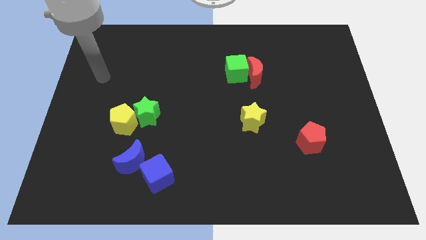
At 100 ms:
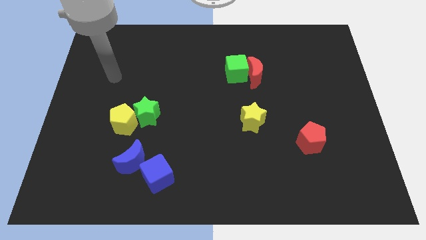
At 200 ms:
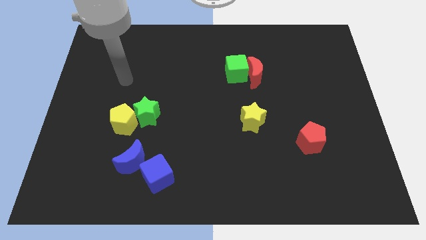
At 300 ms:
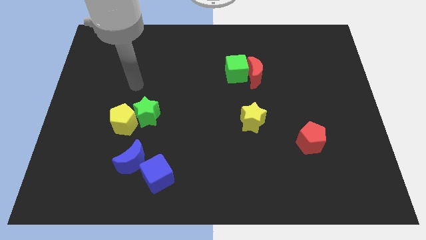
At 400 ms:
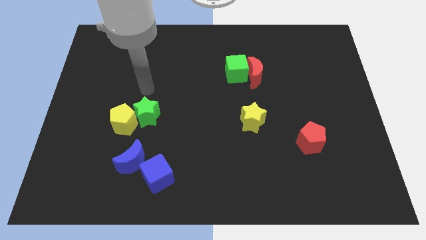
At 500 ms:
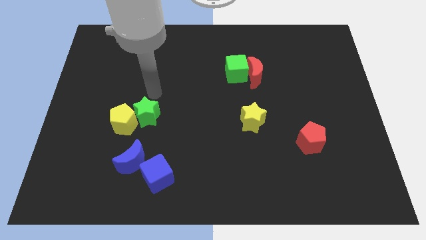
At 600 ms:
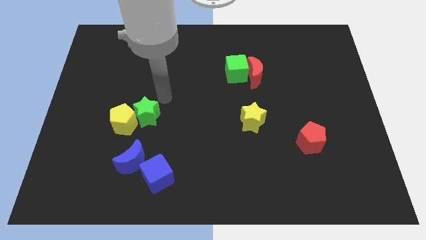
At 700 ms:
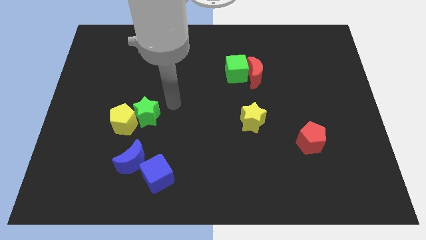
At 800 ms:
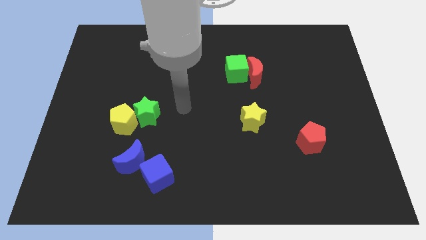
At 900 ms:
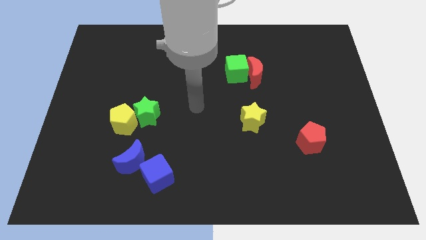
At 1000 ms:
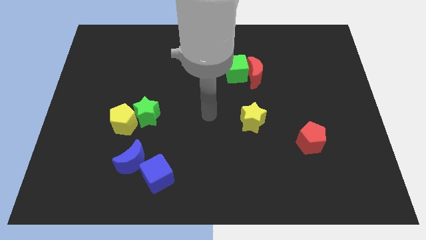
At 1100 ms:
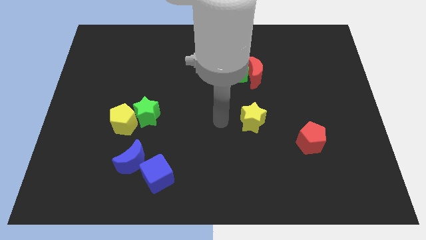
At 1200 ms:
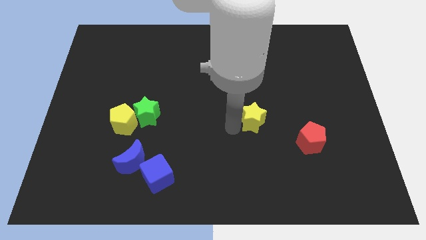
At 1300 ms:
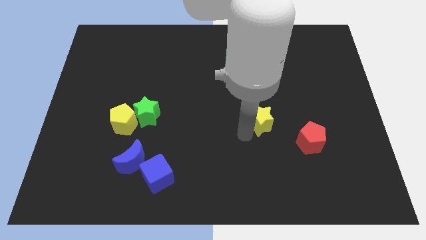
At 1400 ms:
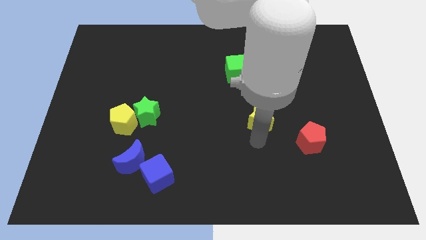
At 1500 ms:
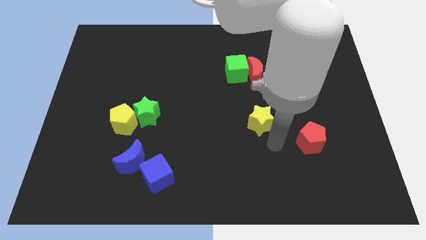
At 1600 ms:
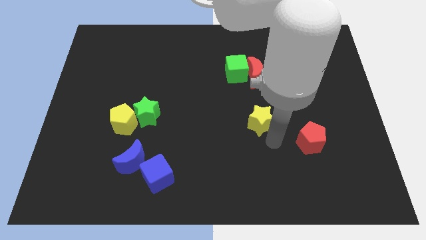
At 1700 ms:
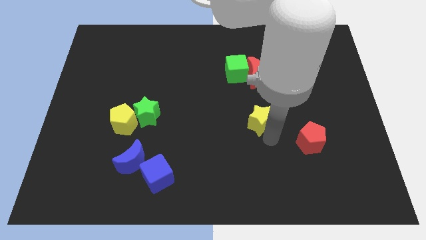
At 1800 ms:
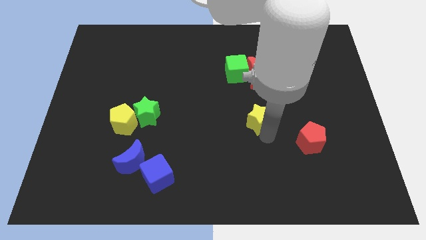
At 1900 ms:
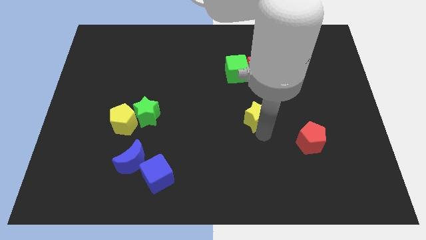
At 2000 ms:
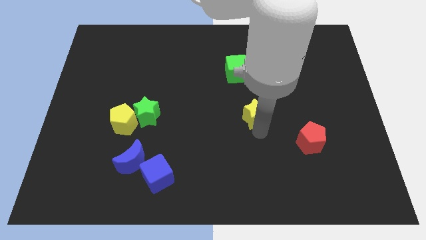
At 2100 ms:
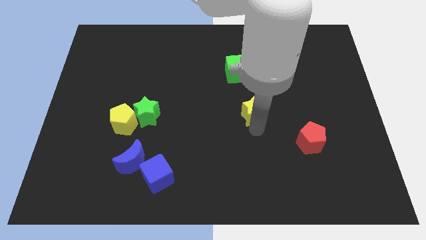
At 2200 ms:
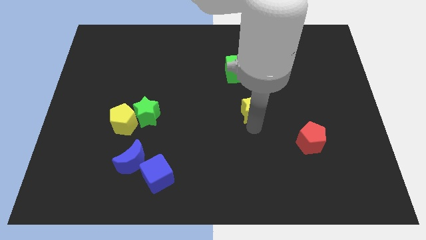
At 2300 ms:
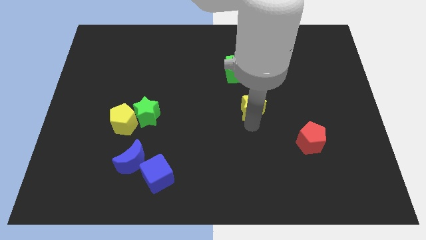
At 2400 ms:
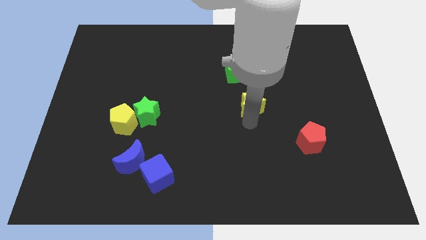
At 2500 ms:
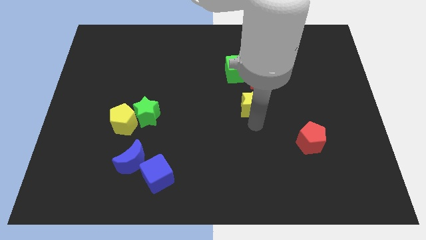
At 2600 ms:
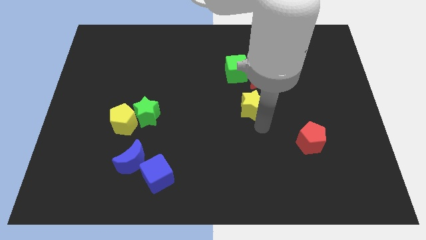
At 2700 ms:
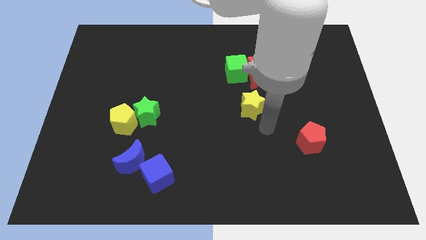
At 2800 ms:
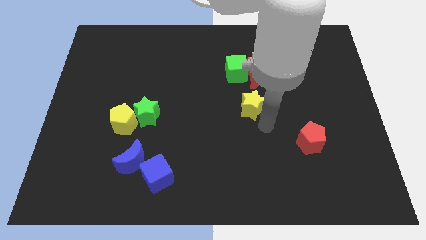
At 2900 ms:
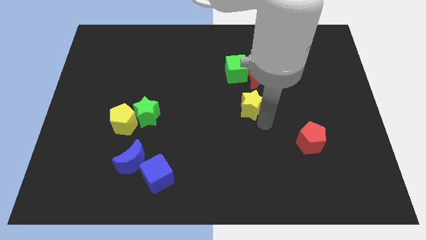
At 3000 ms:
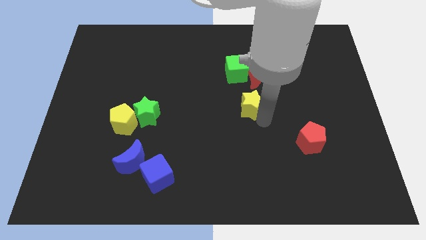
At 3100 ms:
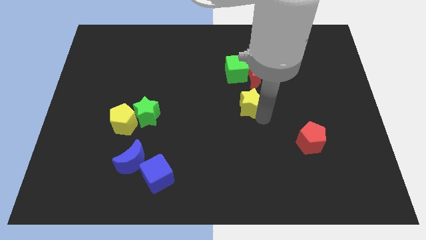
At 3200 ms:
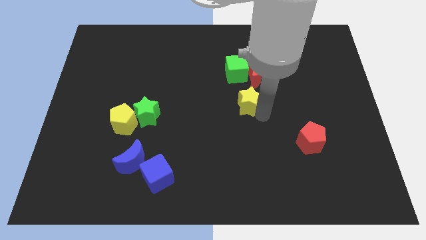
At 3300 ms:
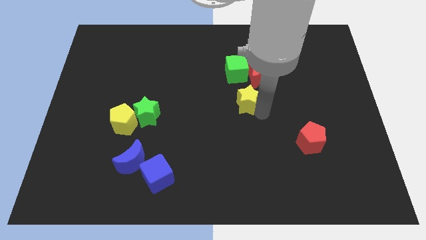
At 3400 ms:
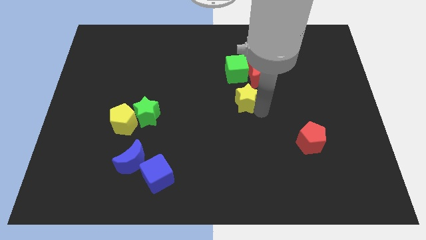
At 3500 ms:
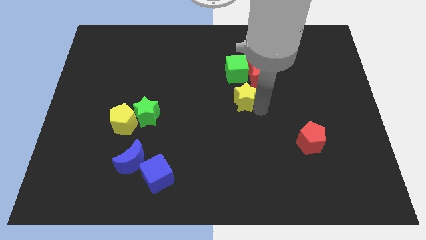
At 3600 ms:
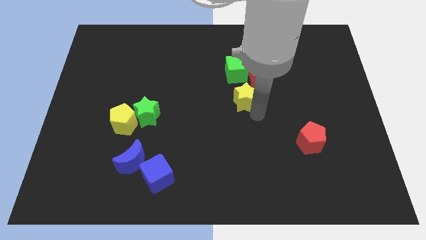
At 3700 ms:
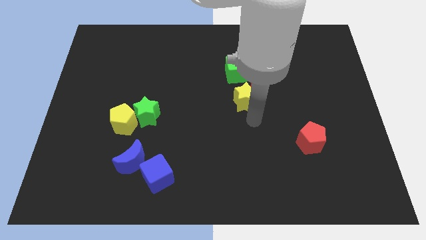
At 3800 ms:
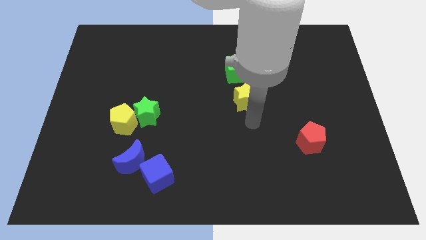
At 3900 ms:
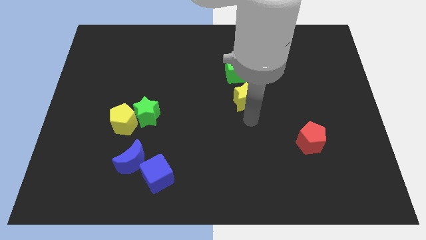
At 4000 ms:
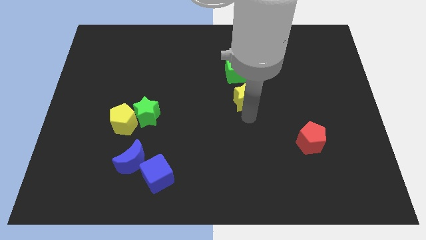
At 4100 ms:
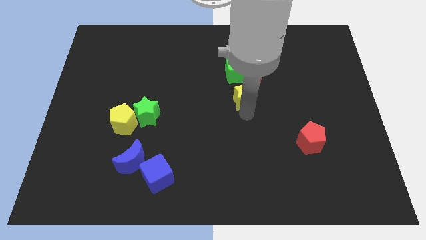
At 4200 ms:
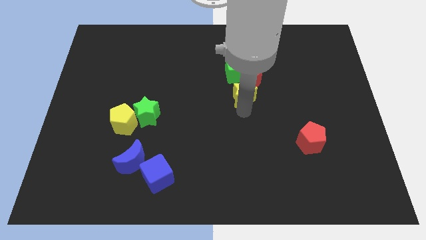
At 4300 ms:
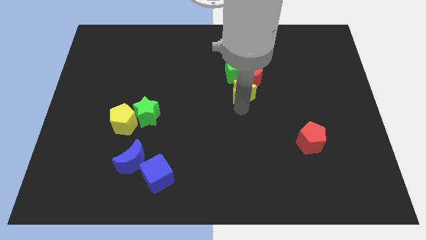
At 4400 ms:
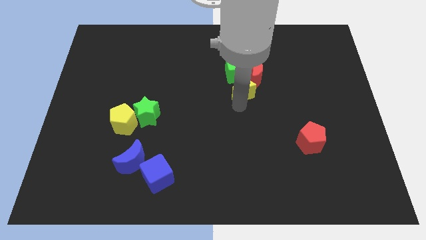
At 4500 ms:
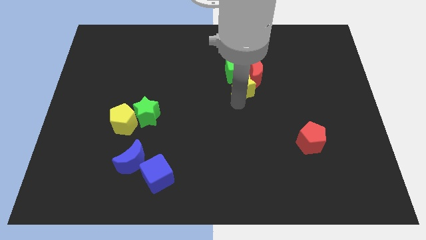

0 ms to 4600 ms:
move the yellow star to the green cube

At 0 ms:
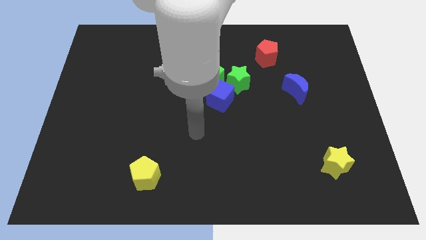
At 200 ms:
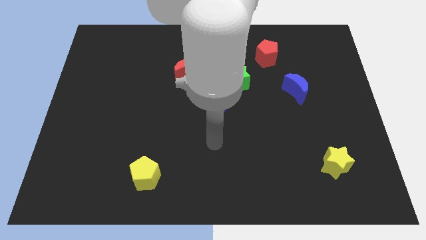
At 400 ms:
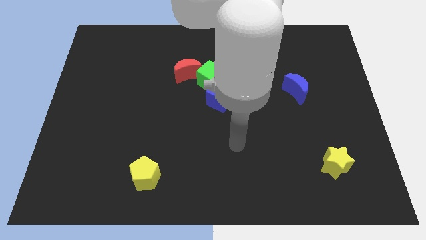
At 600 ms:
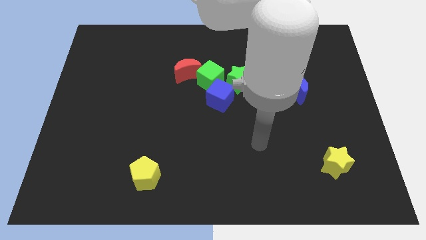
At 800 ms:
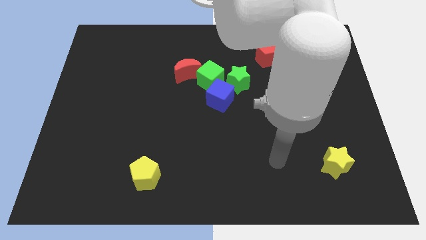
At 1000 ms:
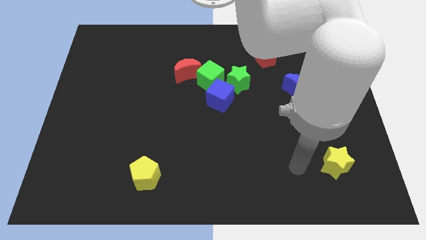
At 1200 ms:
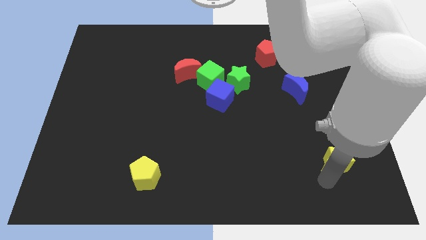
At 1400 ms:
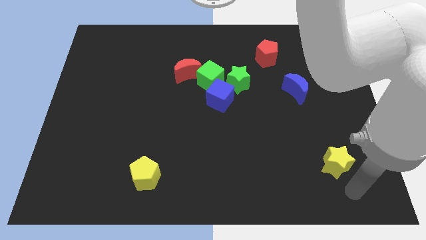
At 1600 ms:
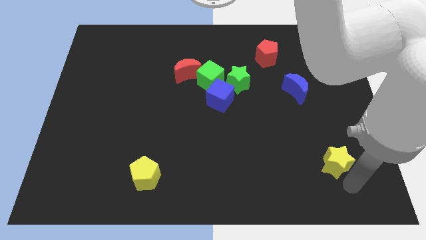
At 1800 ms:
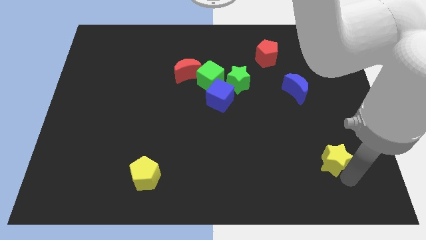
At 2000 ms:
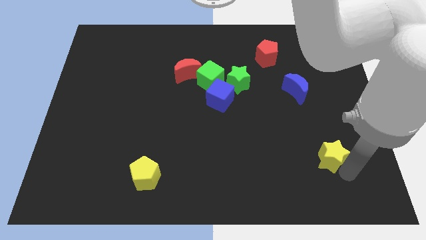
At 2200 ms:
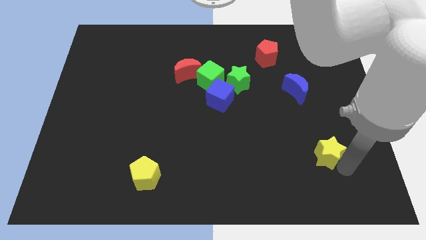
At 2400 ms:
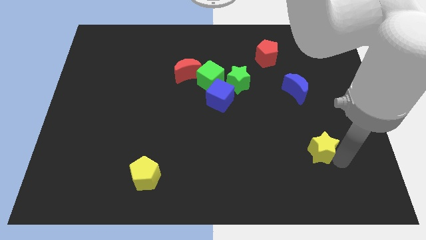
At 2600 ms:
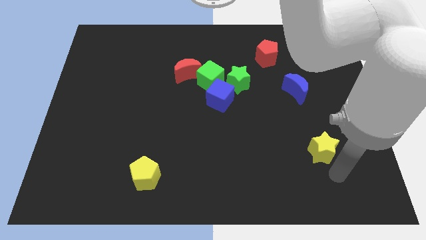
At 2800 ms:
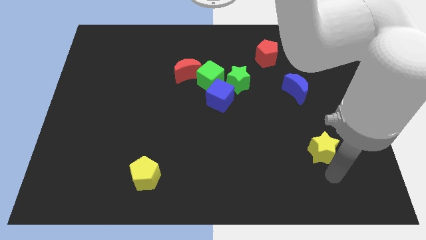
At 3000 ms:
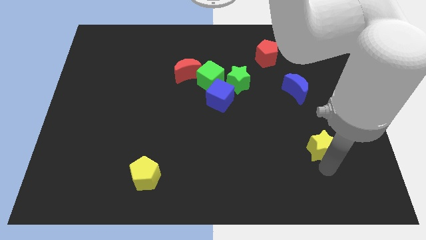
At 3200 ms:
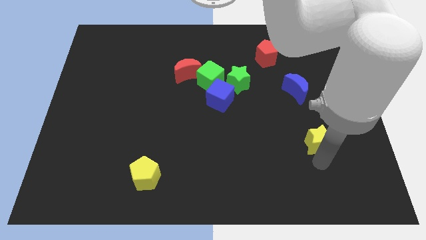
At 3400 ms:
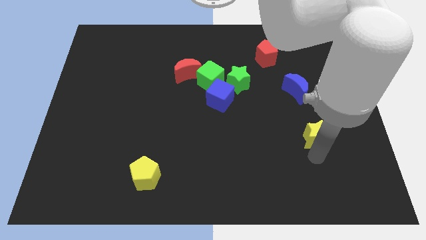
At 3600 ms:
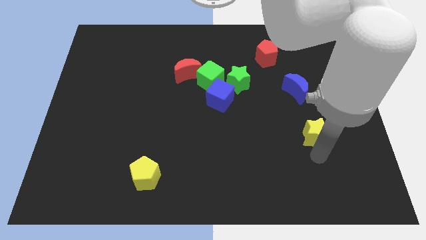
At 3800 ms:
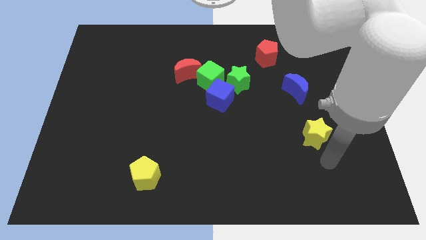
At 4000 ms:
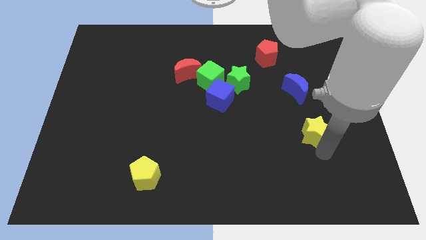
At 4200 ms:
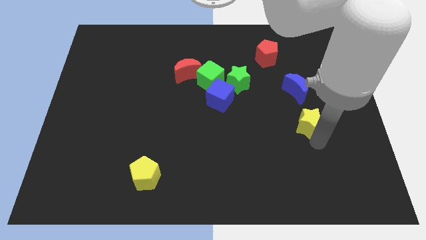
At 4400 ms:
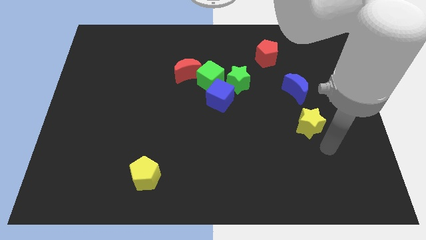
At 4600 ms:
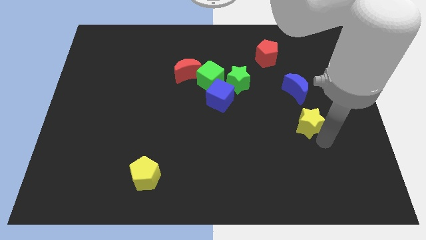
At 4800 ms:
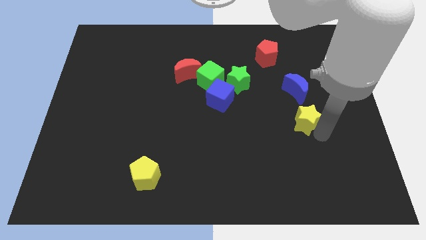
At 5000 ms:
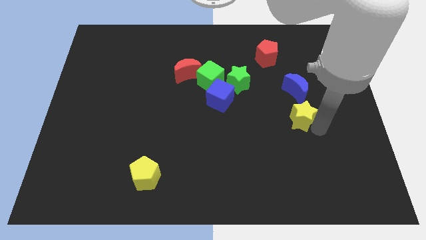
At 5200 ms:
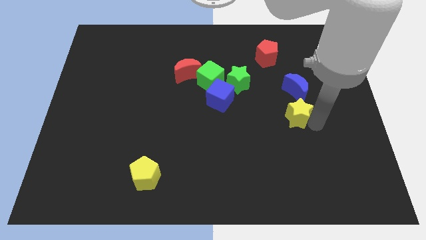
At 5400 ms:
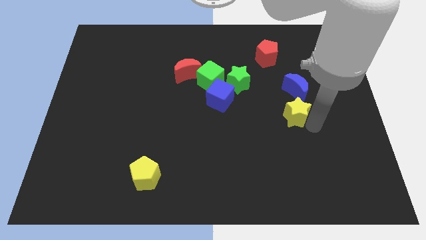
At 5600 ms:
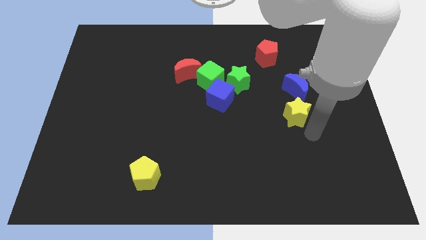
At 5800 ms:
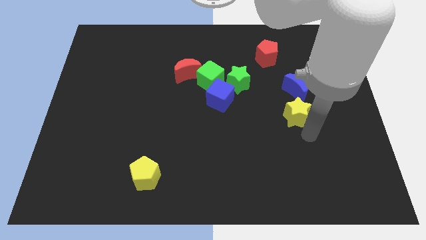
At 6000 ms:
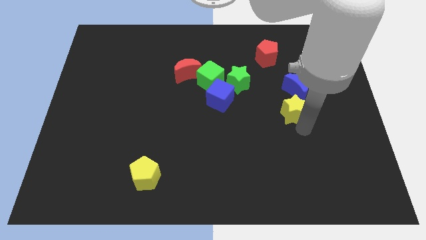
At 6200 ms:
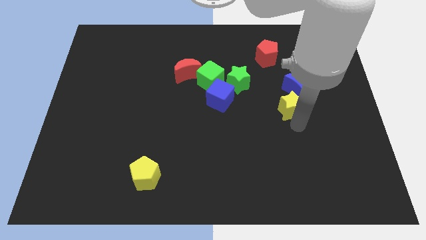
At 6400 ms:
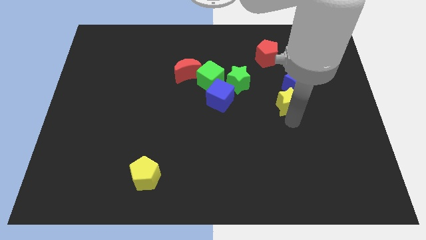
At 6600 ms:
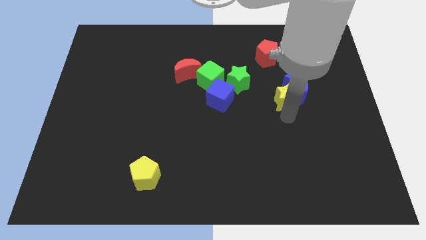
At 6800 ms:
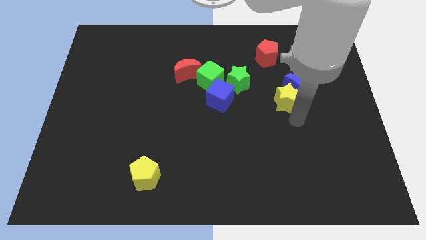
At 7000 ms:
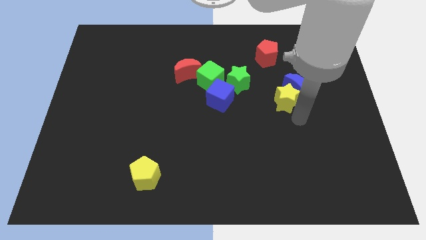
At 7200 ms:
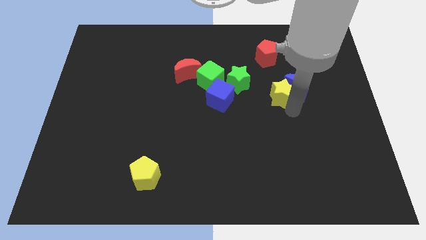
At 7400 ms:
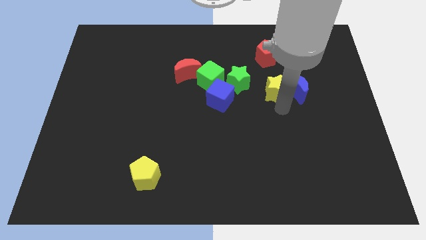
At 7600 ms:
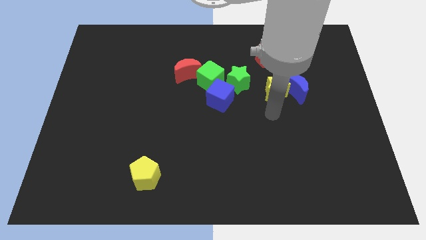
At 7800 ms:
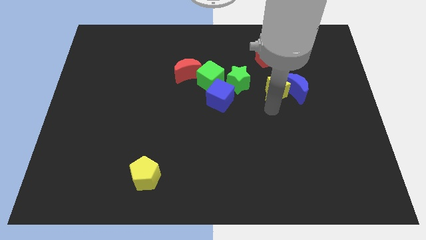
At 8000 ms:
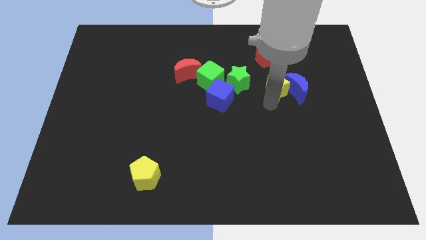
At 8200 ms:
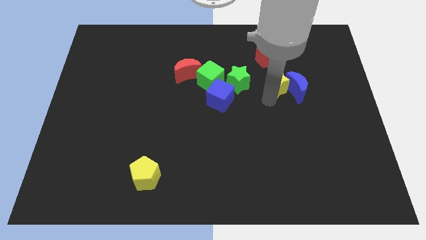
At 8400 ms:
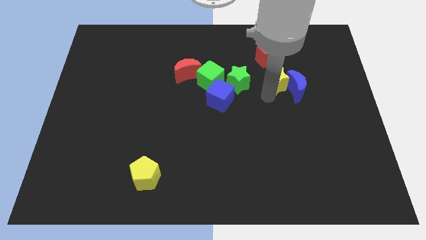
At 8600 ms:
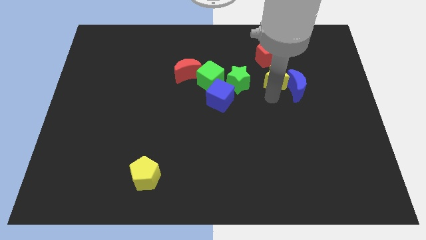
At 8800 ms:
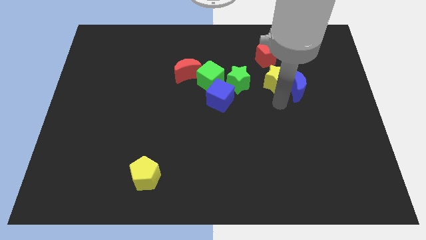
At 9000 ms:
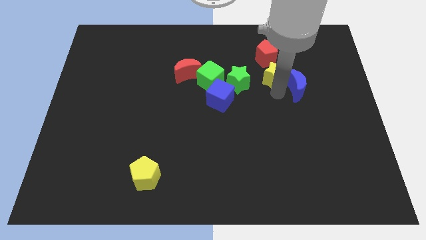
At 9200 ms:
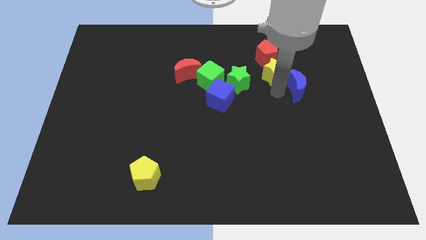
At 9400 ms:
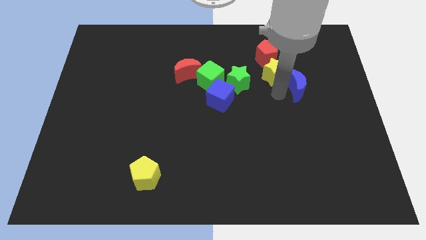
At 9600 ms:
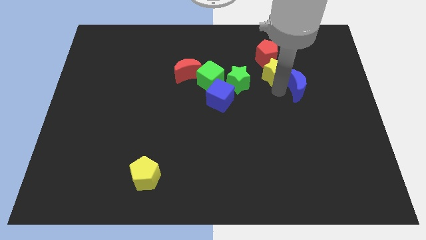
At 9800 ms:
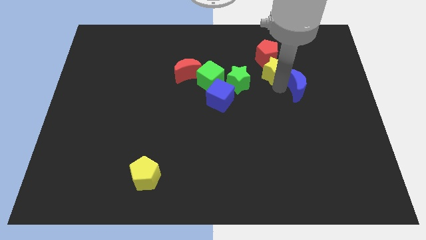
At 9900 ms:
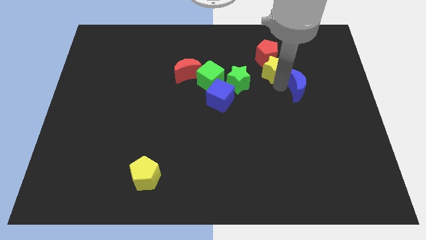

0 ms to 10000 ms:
put the yellow star close to the red pentagon
